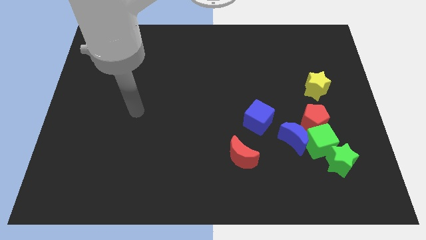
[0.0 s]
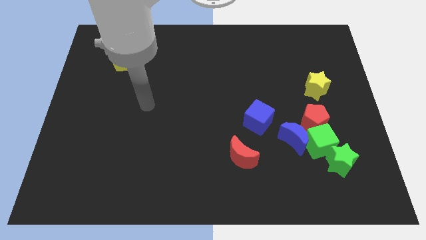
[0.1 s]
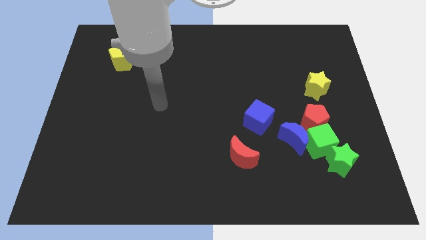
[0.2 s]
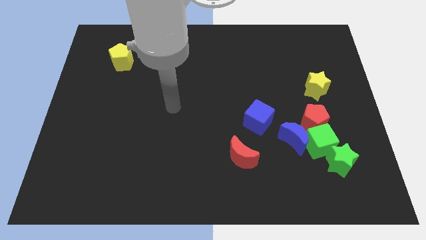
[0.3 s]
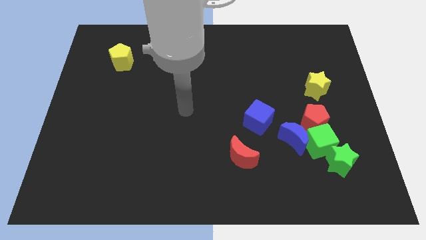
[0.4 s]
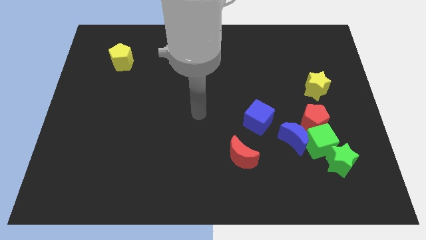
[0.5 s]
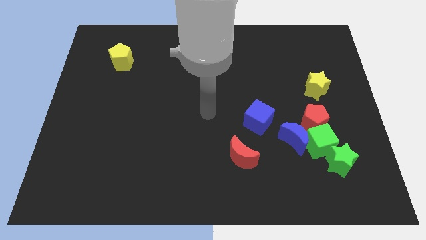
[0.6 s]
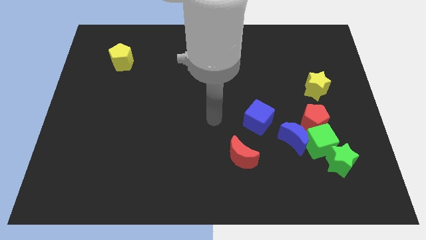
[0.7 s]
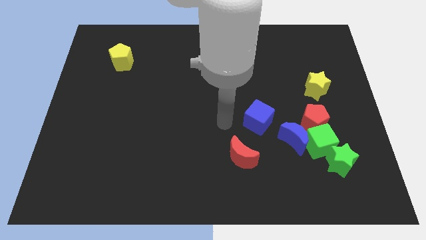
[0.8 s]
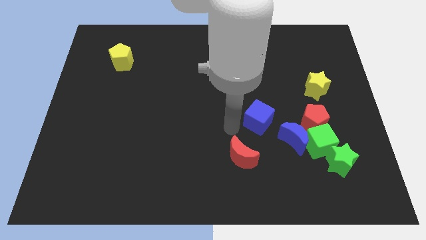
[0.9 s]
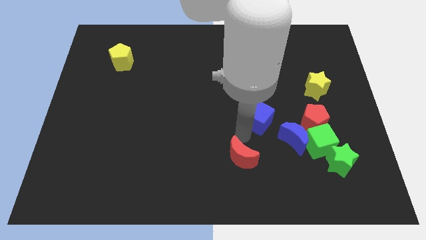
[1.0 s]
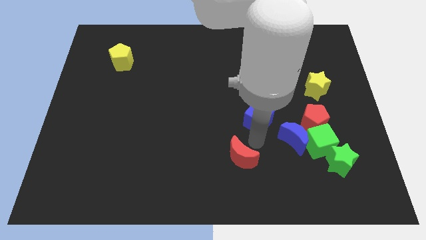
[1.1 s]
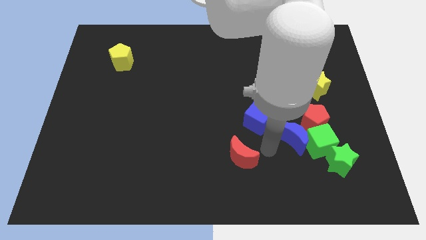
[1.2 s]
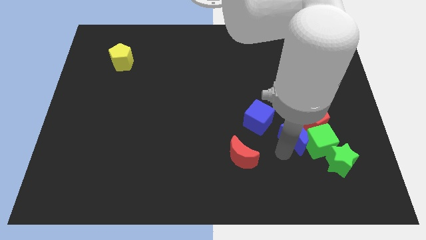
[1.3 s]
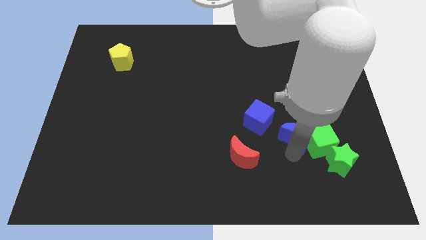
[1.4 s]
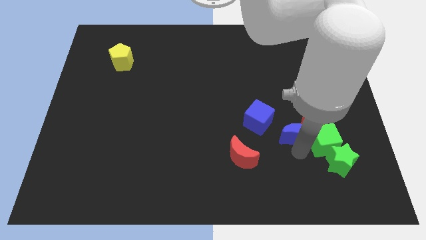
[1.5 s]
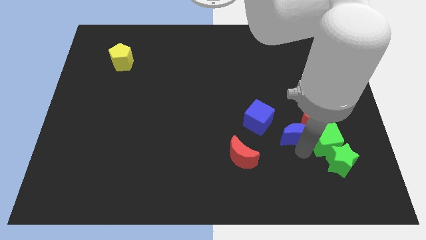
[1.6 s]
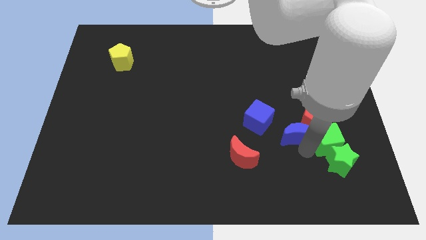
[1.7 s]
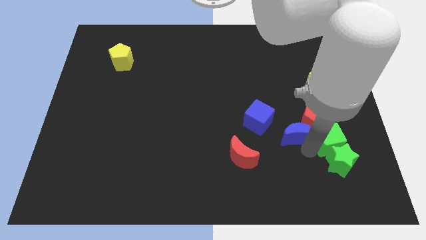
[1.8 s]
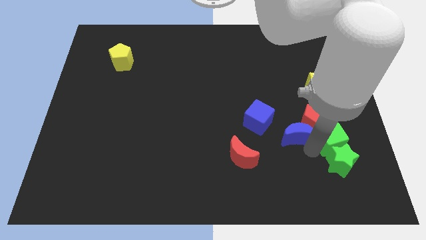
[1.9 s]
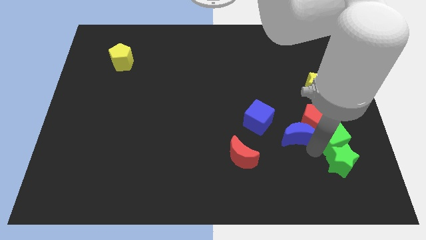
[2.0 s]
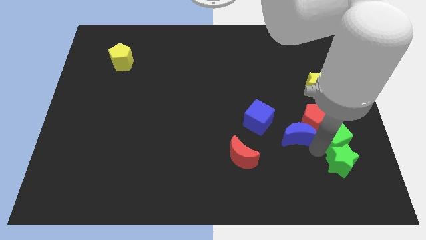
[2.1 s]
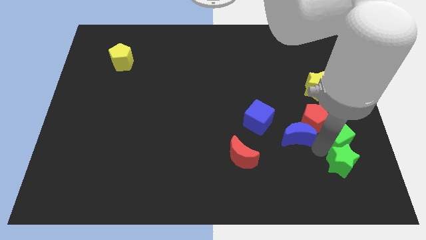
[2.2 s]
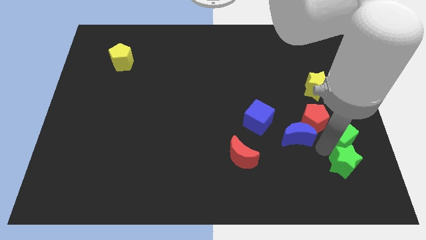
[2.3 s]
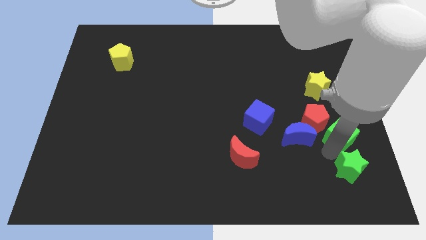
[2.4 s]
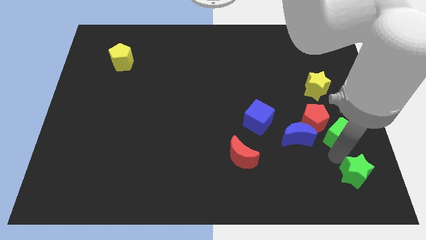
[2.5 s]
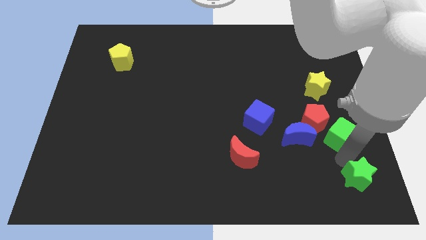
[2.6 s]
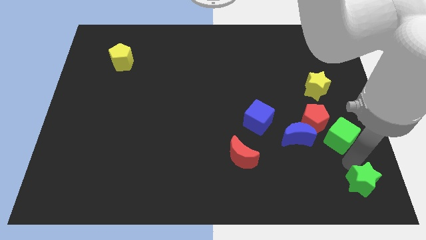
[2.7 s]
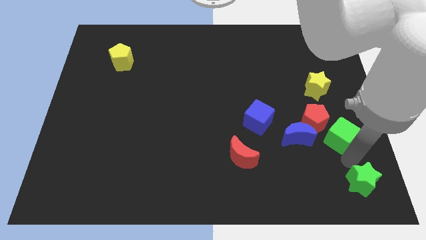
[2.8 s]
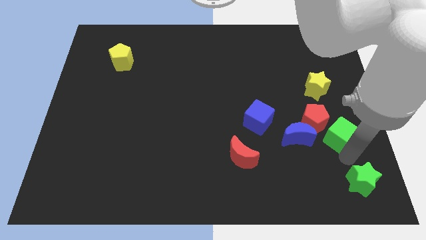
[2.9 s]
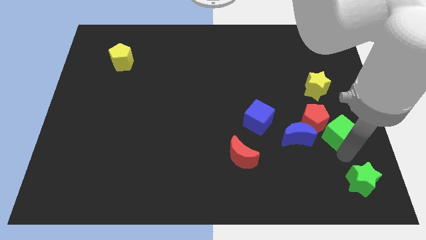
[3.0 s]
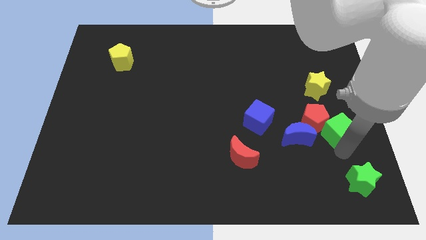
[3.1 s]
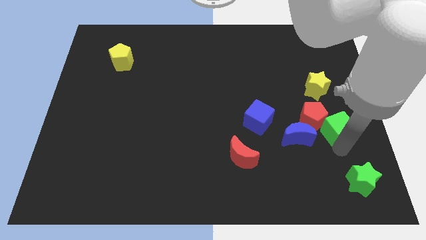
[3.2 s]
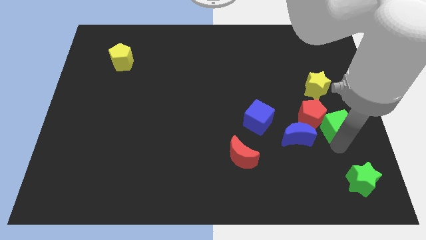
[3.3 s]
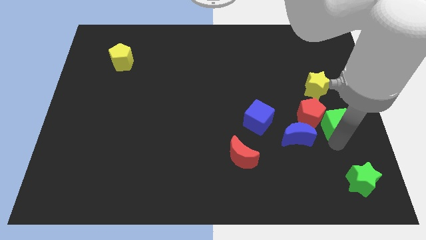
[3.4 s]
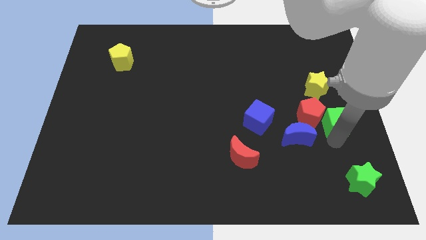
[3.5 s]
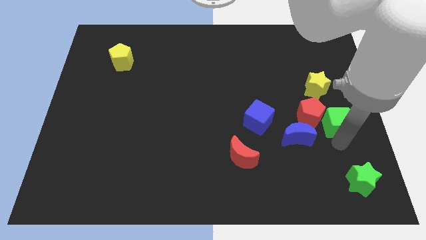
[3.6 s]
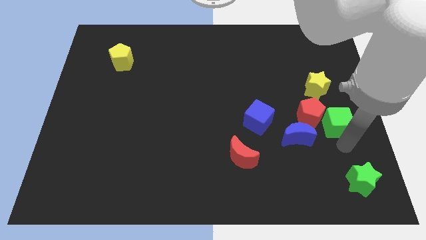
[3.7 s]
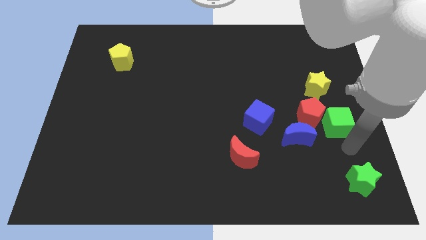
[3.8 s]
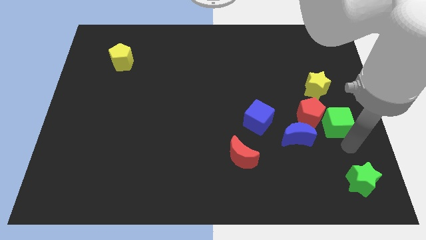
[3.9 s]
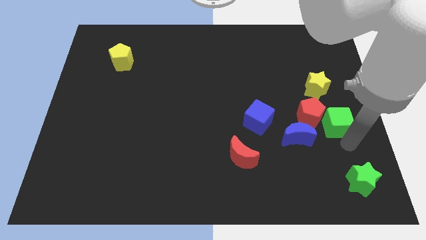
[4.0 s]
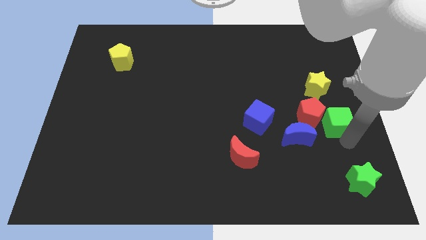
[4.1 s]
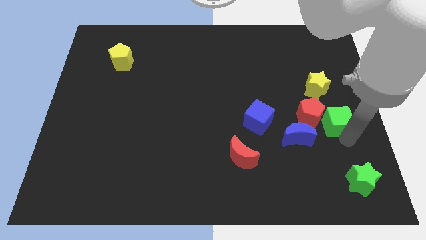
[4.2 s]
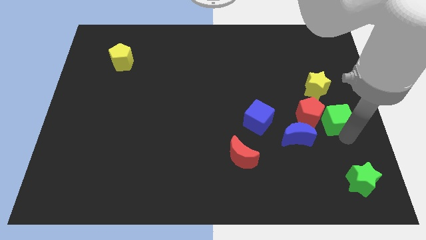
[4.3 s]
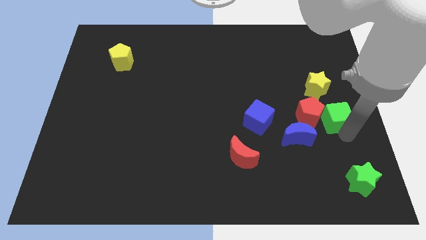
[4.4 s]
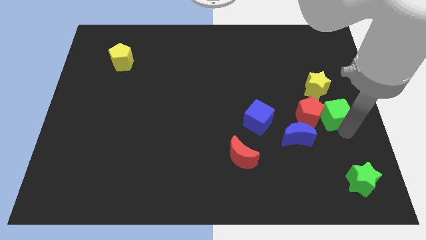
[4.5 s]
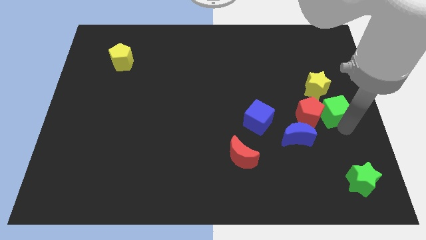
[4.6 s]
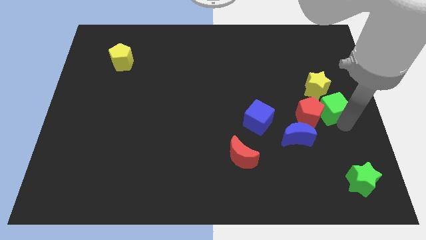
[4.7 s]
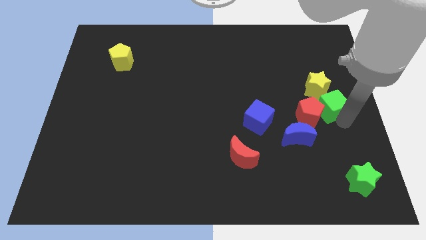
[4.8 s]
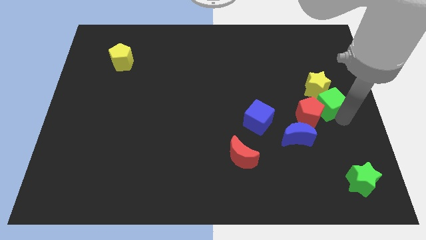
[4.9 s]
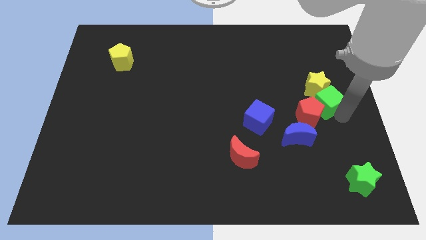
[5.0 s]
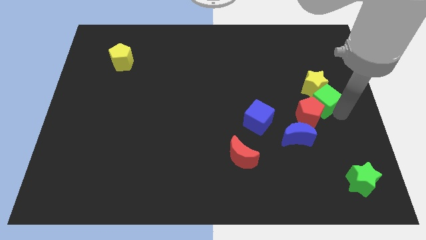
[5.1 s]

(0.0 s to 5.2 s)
put the green cube to the top of the red pentagon

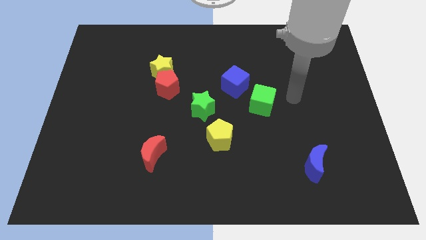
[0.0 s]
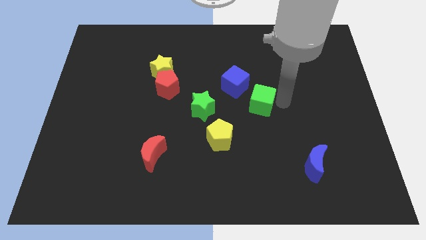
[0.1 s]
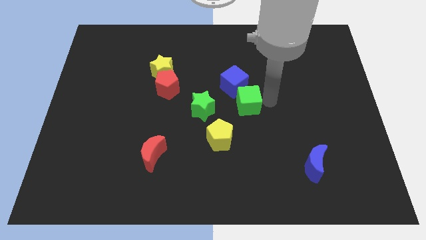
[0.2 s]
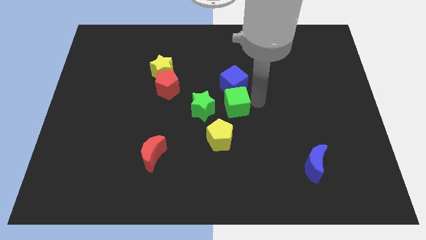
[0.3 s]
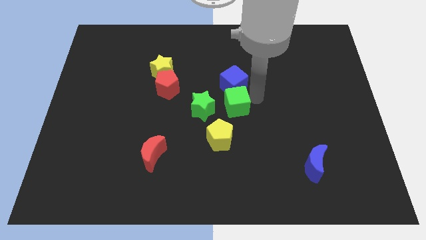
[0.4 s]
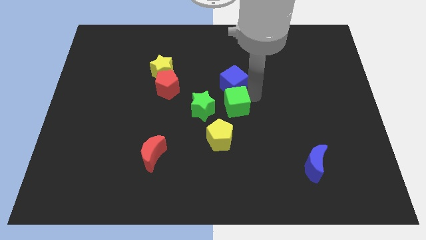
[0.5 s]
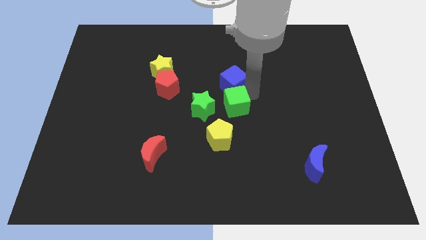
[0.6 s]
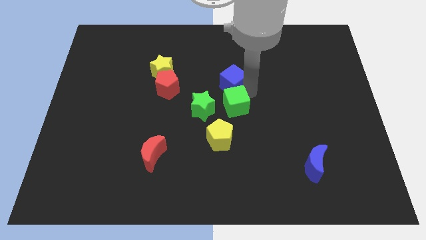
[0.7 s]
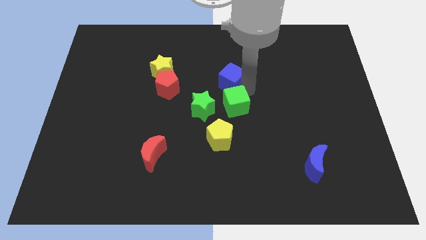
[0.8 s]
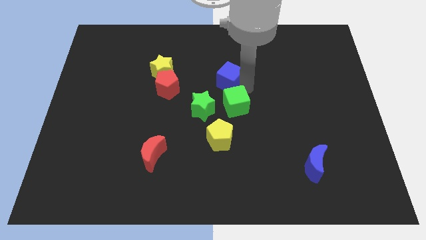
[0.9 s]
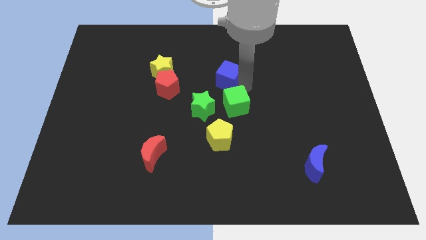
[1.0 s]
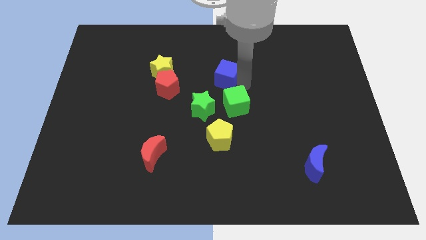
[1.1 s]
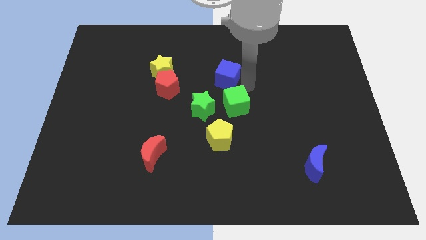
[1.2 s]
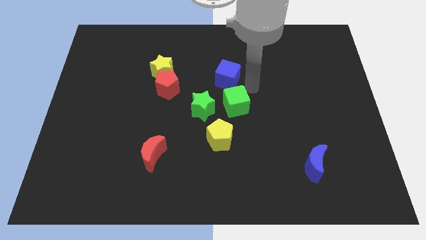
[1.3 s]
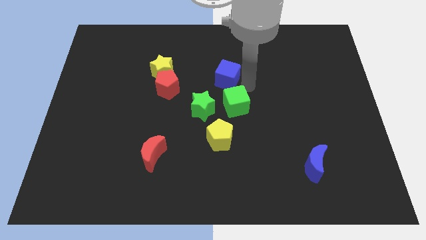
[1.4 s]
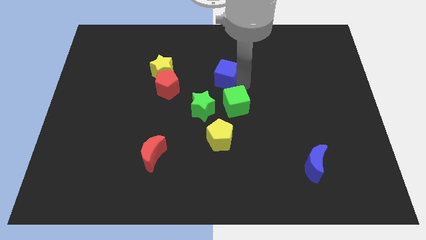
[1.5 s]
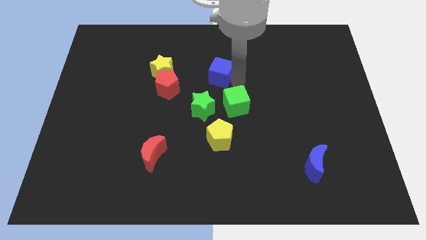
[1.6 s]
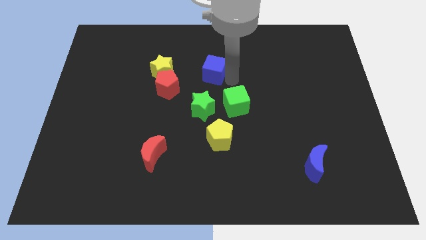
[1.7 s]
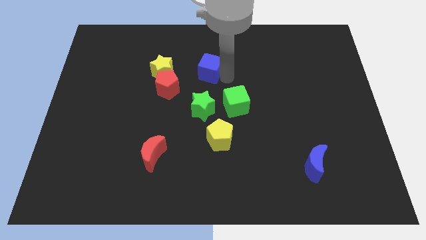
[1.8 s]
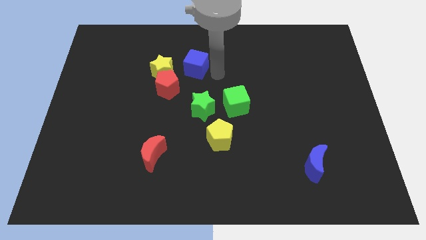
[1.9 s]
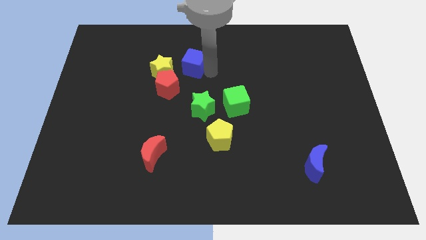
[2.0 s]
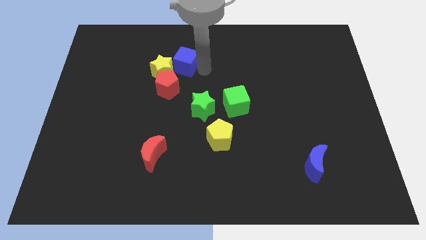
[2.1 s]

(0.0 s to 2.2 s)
slide the blue cube above the red pentagon

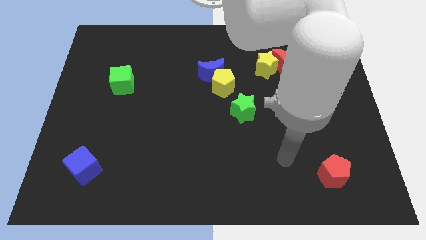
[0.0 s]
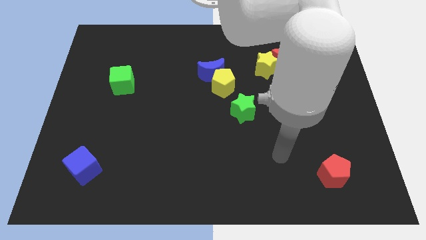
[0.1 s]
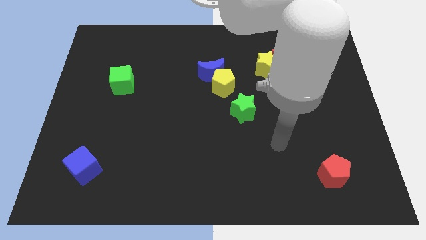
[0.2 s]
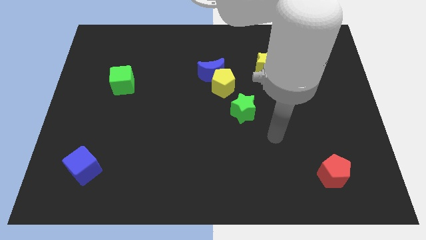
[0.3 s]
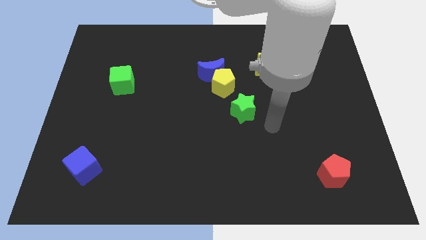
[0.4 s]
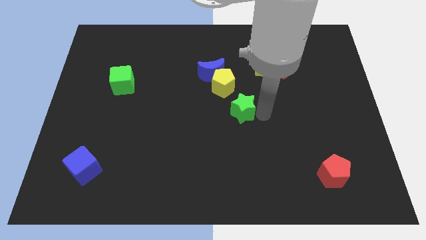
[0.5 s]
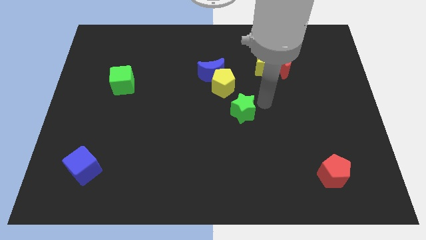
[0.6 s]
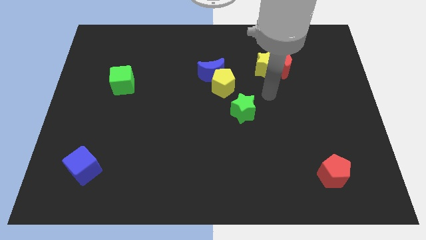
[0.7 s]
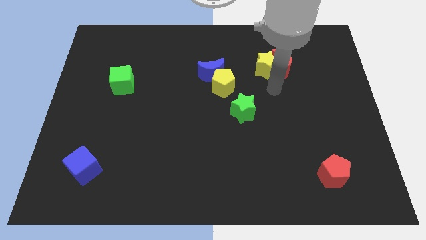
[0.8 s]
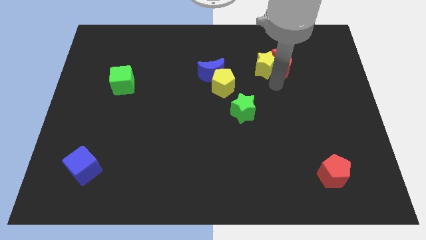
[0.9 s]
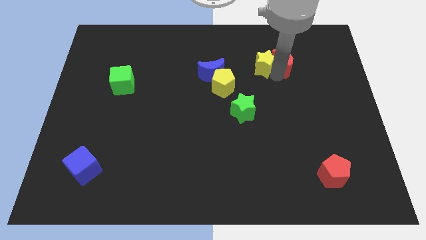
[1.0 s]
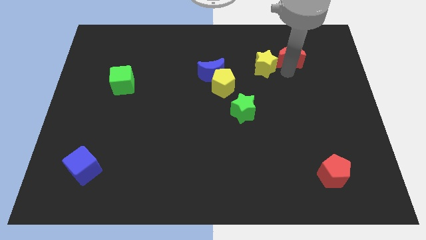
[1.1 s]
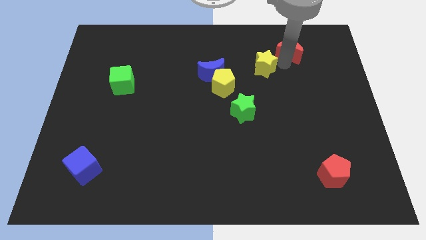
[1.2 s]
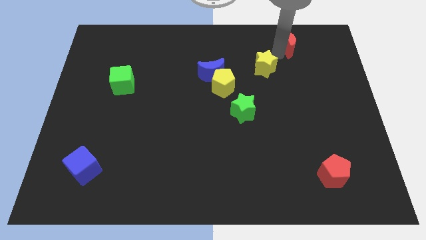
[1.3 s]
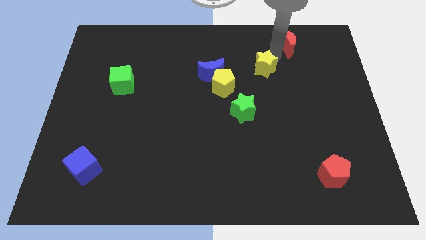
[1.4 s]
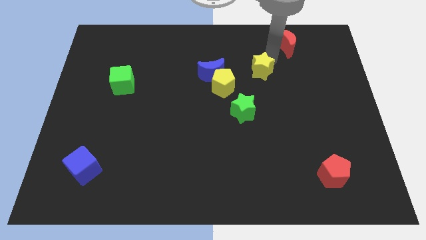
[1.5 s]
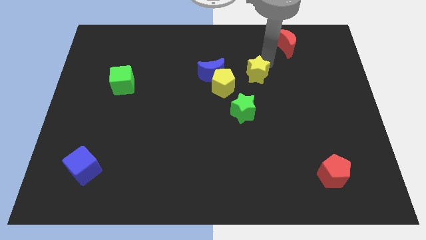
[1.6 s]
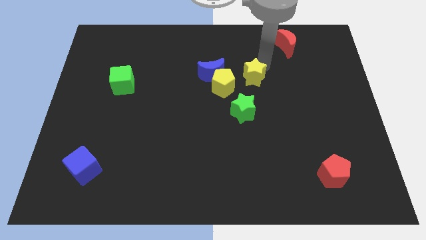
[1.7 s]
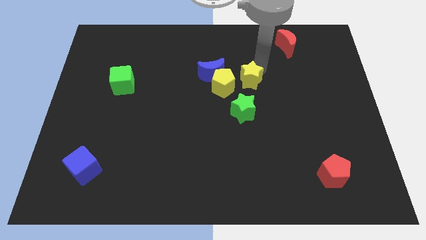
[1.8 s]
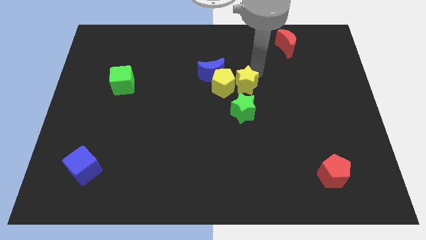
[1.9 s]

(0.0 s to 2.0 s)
move the yellow star diagonally down and to the right of the blue moon
